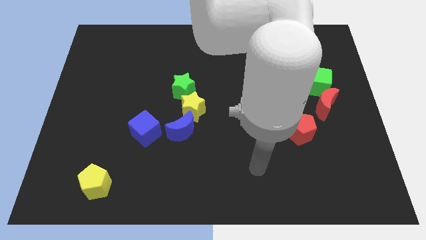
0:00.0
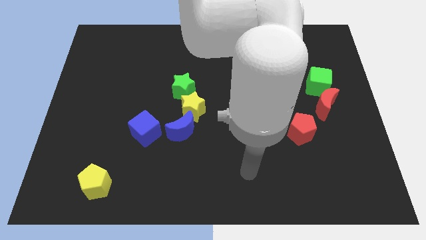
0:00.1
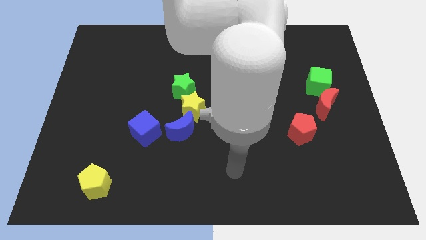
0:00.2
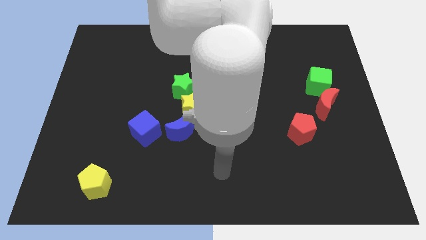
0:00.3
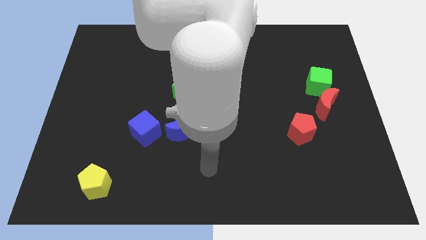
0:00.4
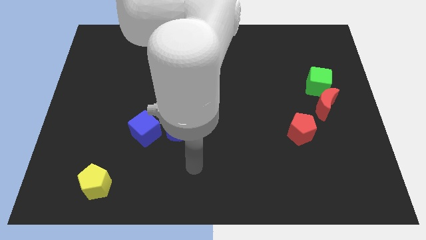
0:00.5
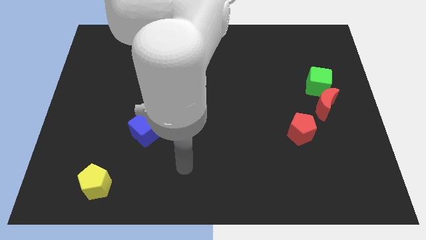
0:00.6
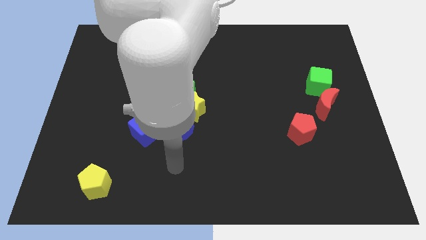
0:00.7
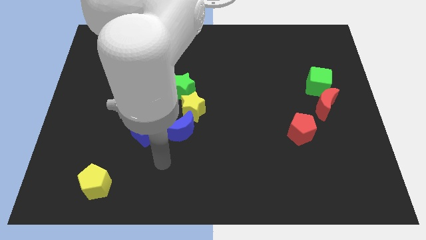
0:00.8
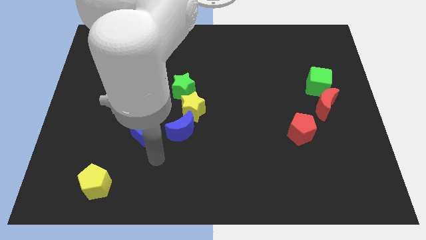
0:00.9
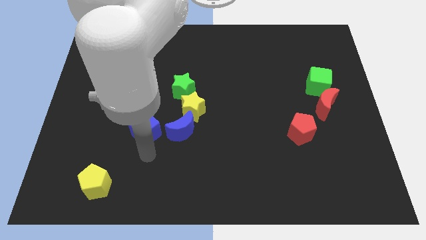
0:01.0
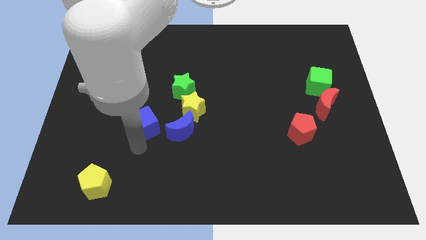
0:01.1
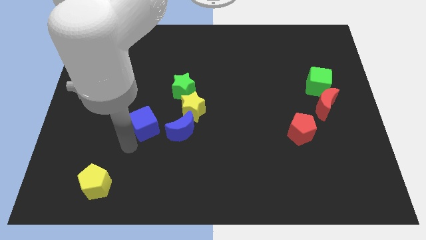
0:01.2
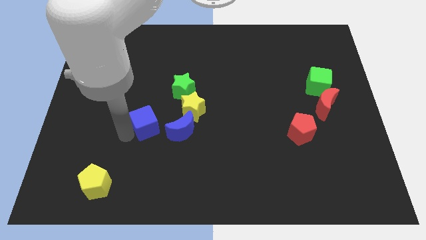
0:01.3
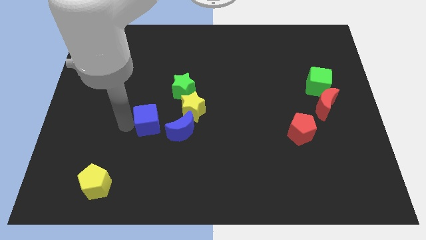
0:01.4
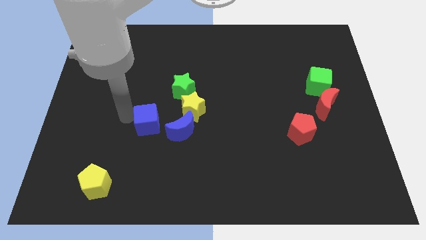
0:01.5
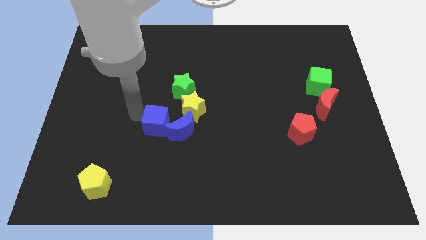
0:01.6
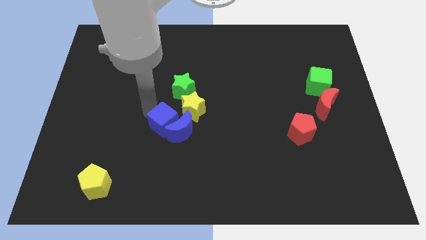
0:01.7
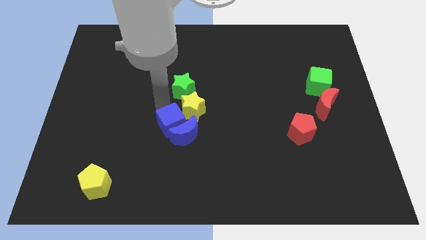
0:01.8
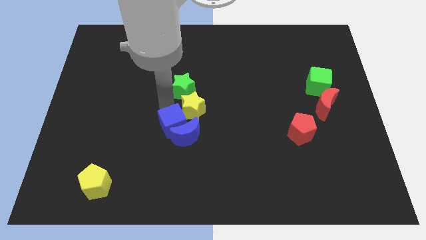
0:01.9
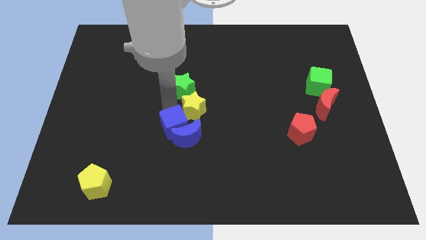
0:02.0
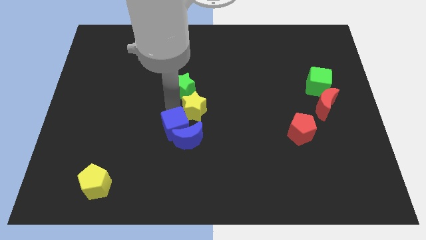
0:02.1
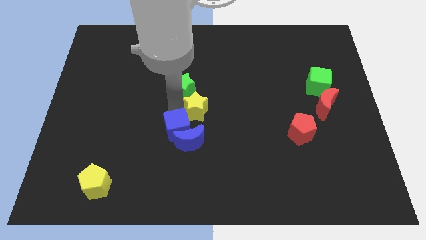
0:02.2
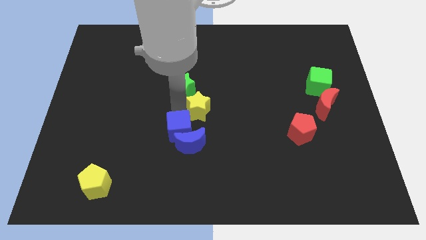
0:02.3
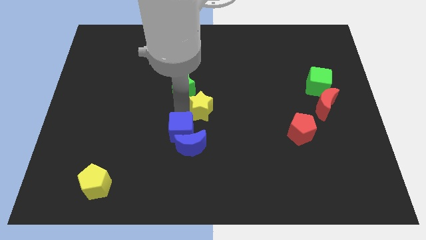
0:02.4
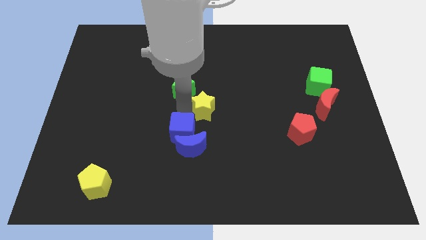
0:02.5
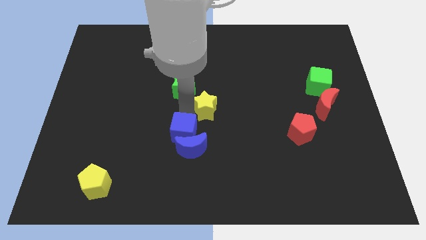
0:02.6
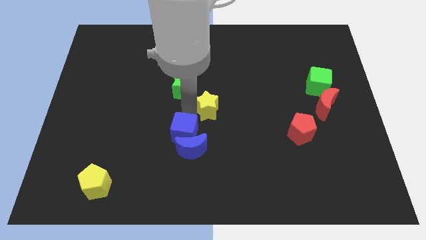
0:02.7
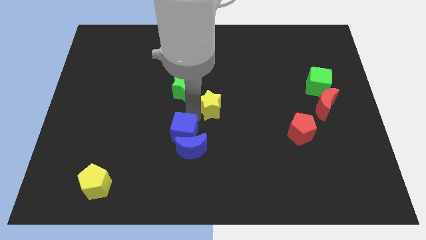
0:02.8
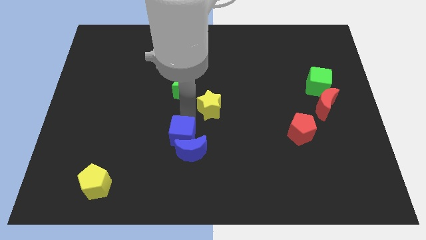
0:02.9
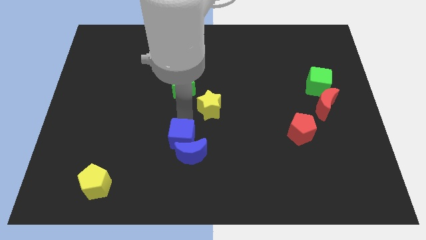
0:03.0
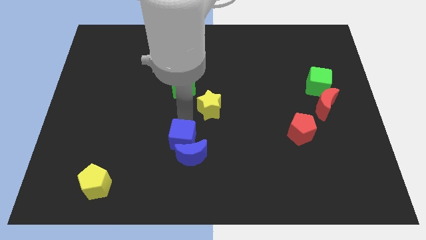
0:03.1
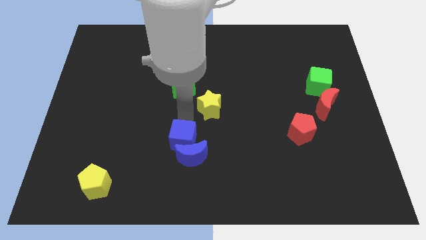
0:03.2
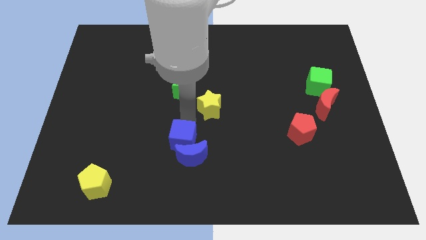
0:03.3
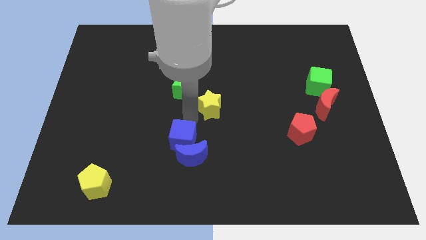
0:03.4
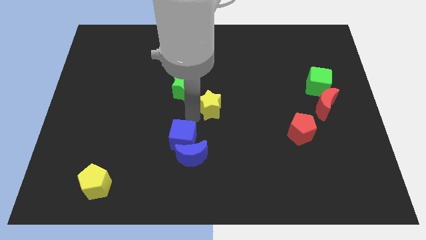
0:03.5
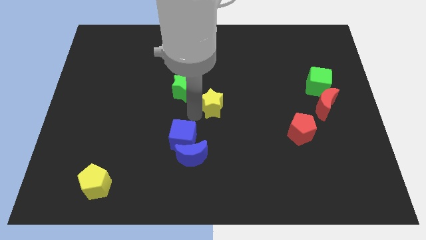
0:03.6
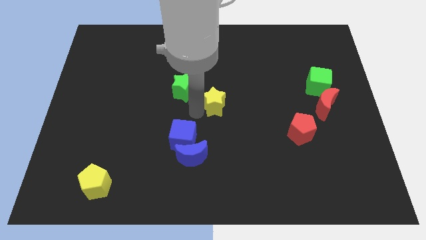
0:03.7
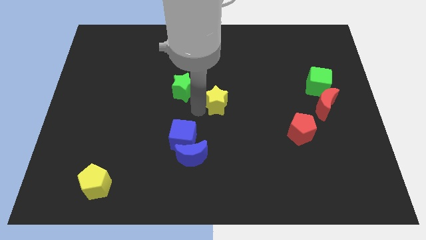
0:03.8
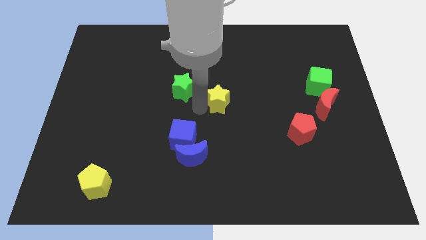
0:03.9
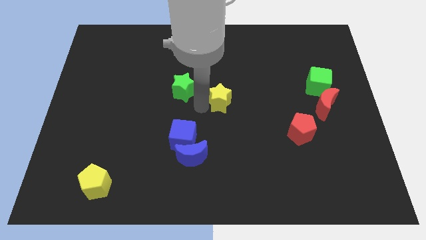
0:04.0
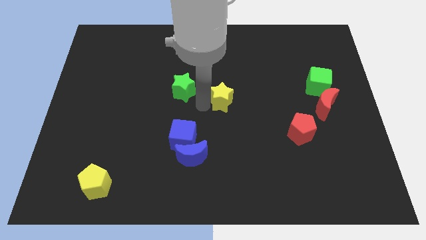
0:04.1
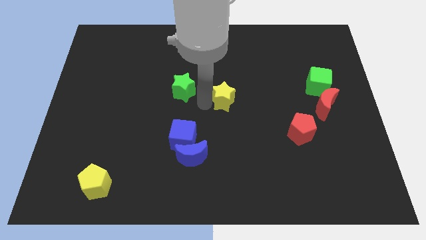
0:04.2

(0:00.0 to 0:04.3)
pull the yellow star apart from the blue moon and green star

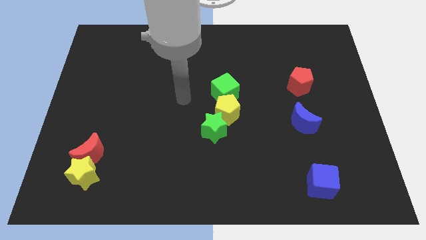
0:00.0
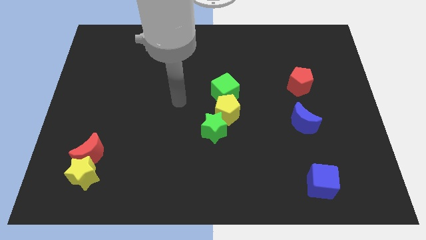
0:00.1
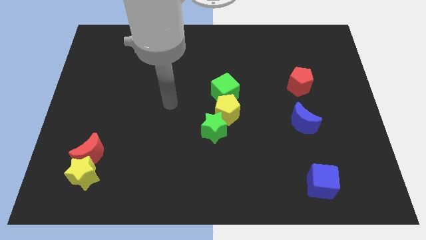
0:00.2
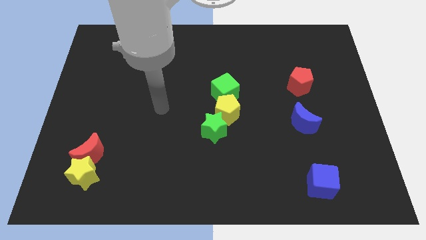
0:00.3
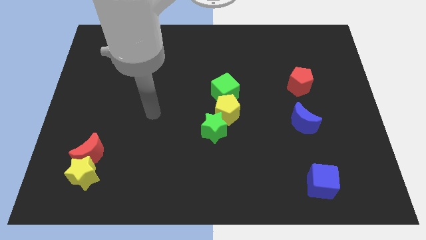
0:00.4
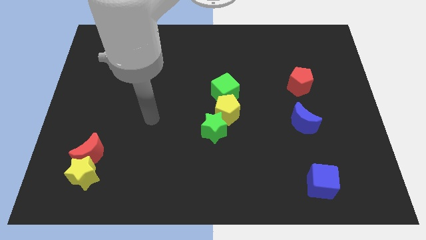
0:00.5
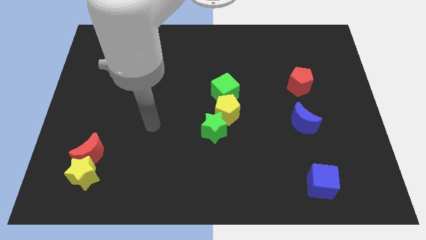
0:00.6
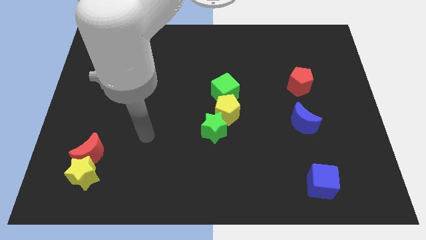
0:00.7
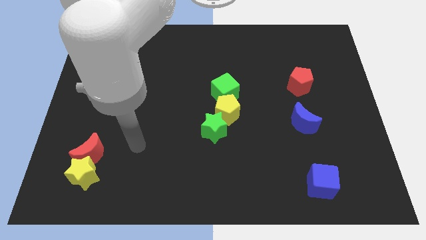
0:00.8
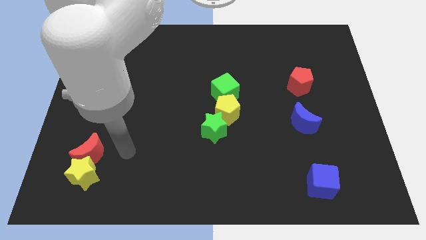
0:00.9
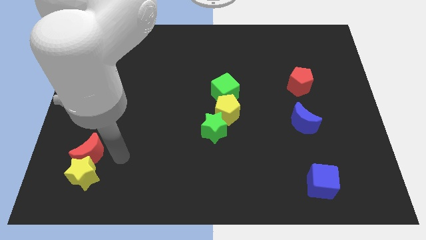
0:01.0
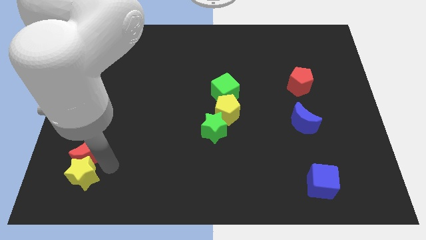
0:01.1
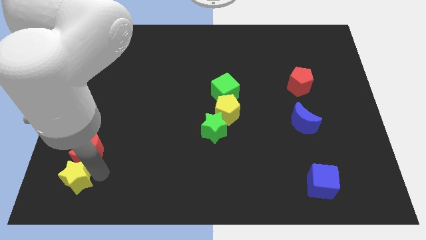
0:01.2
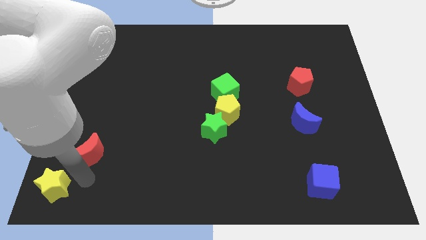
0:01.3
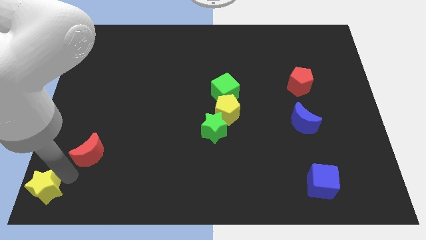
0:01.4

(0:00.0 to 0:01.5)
pull the red moon apart from the yellow star

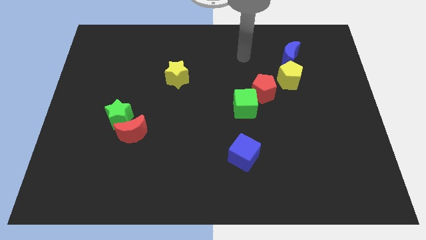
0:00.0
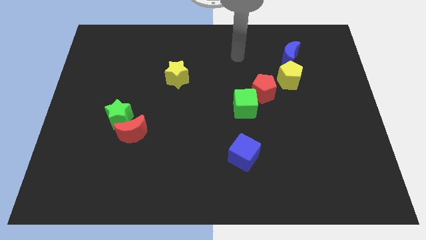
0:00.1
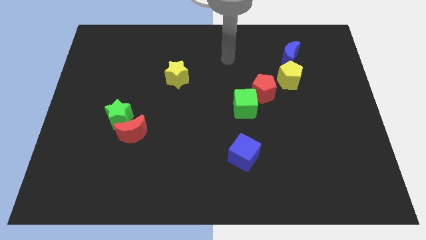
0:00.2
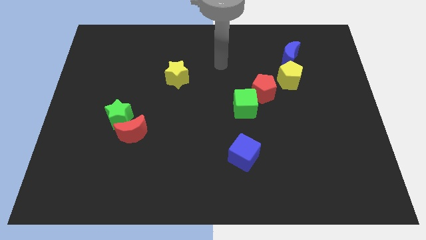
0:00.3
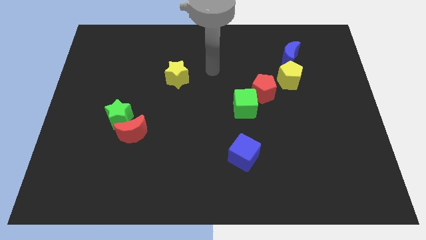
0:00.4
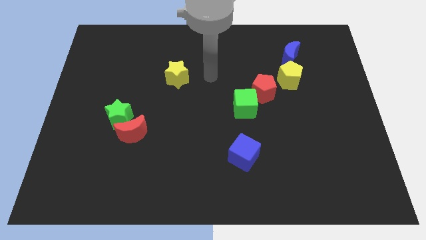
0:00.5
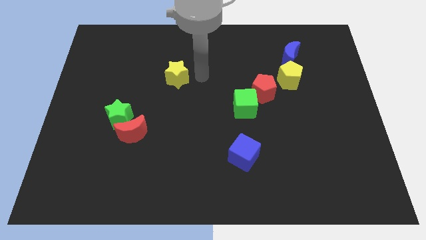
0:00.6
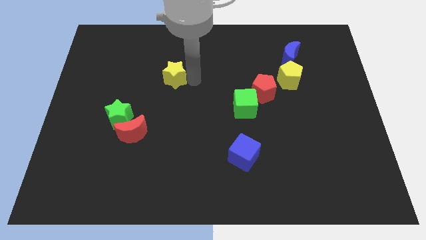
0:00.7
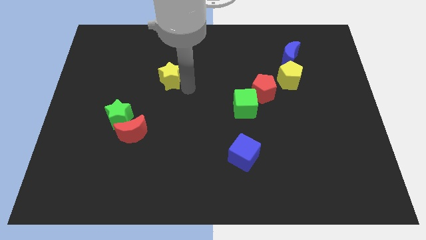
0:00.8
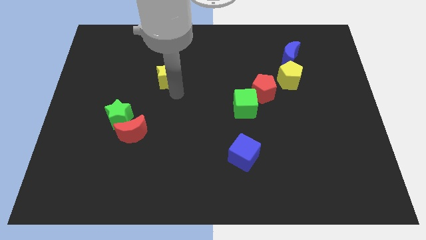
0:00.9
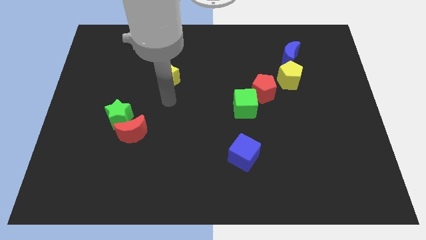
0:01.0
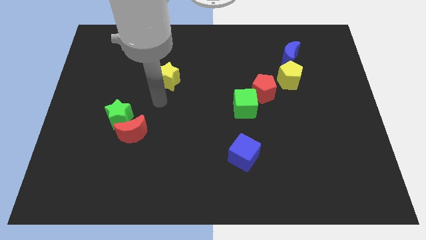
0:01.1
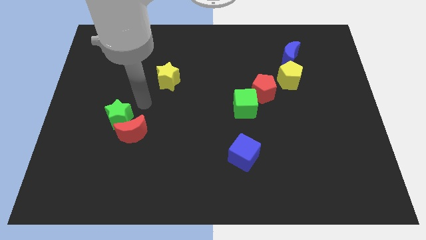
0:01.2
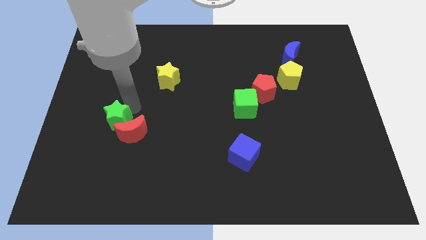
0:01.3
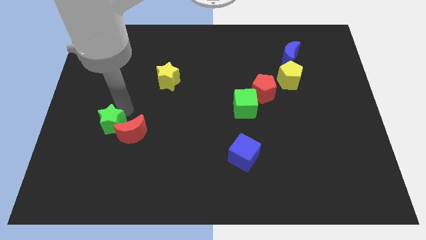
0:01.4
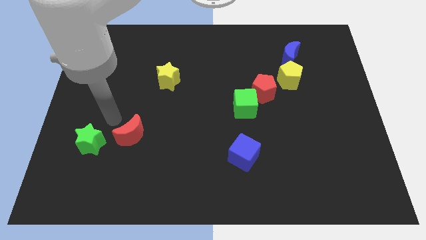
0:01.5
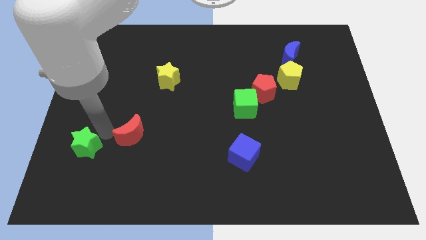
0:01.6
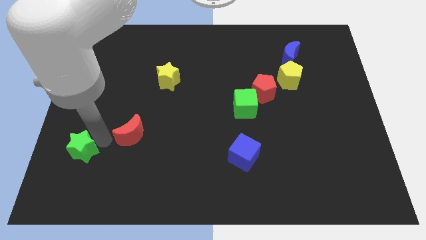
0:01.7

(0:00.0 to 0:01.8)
pull the red moon apart from the green star

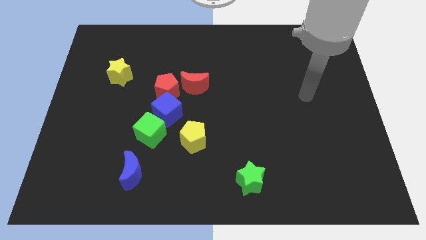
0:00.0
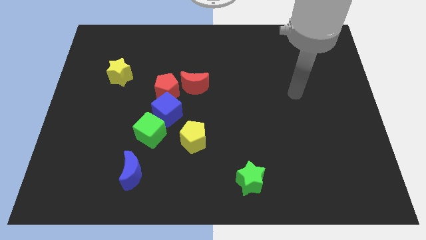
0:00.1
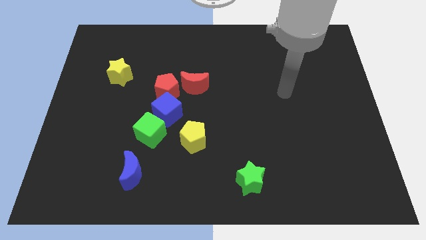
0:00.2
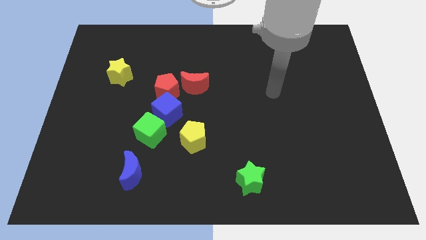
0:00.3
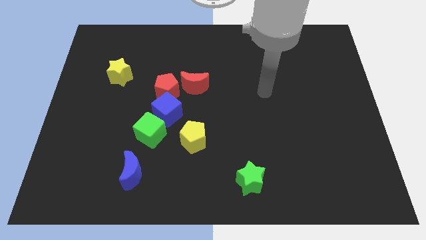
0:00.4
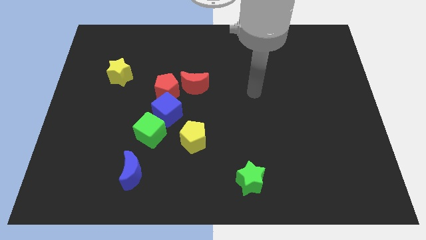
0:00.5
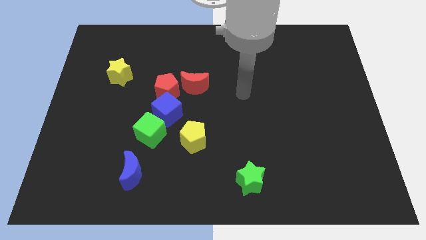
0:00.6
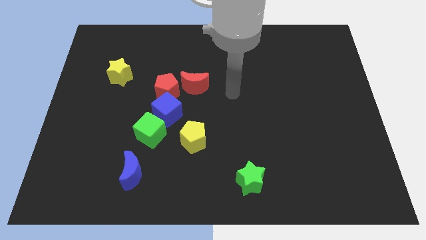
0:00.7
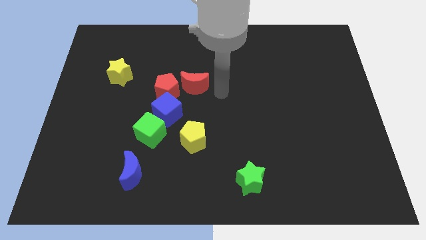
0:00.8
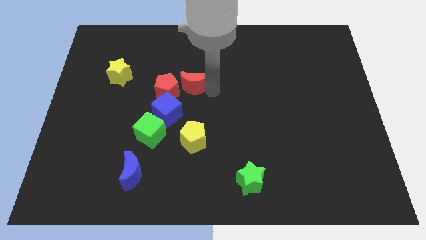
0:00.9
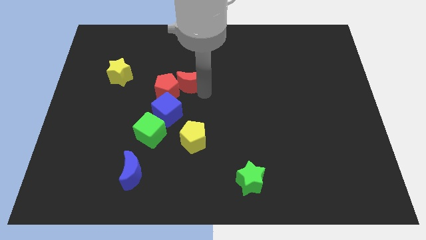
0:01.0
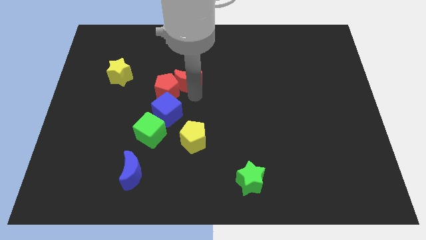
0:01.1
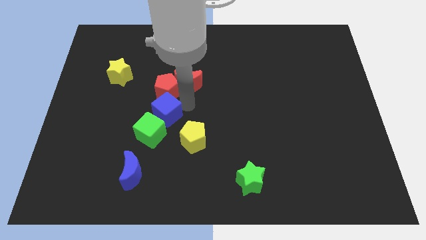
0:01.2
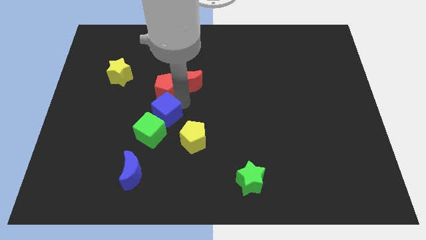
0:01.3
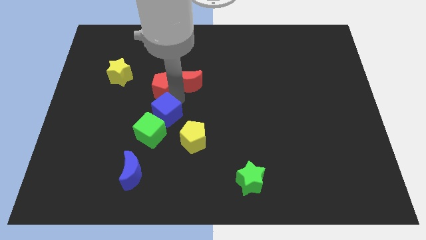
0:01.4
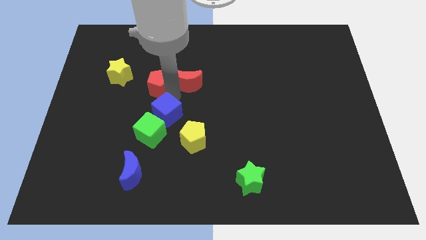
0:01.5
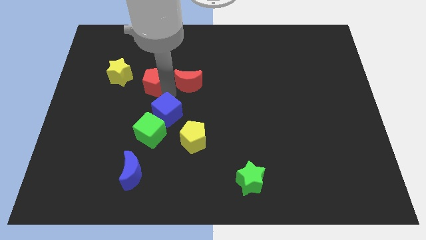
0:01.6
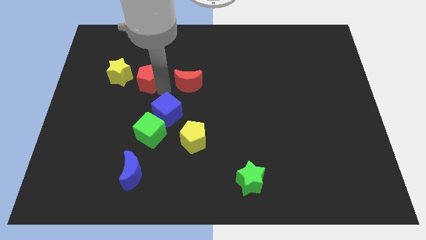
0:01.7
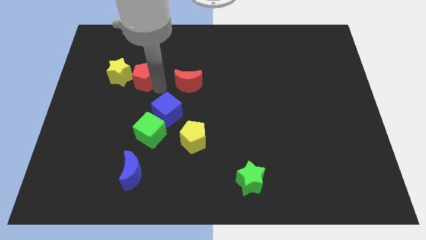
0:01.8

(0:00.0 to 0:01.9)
move the red pentagon away from the blue cube and red moon
